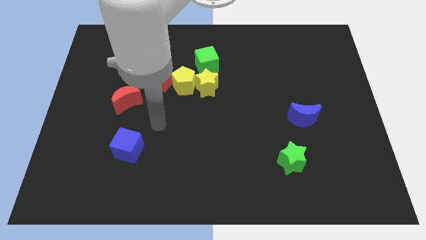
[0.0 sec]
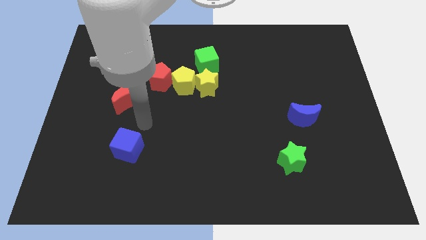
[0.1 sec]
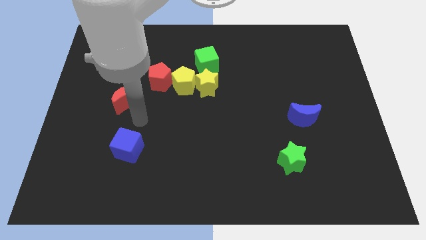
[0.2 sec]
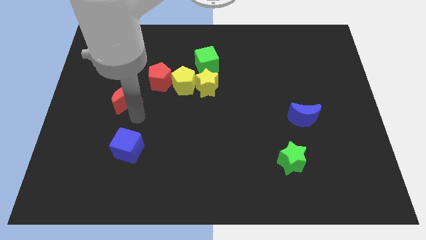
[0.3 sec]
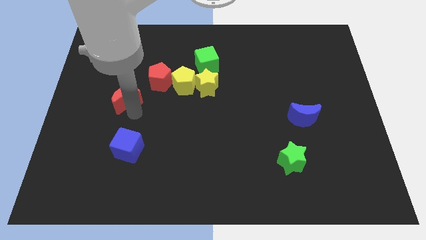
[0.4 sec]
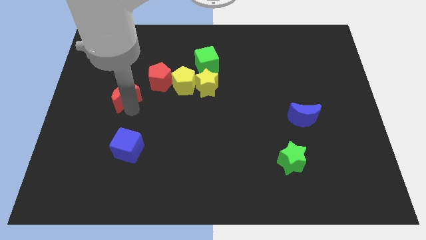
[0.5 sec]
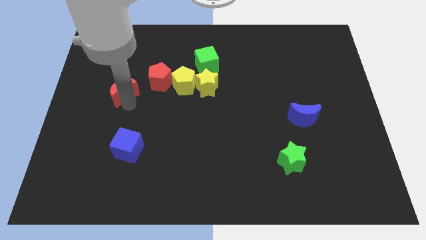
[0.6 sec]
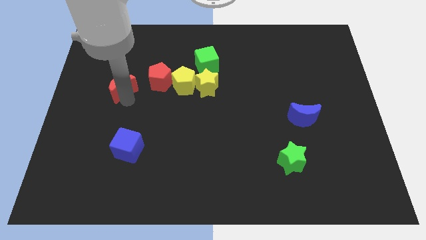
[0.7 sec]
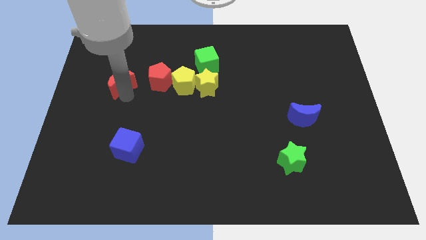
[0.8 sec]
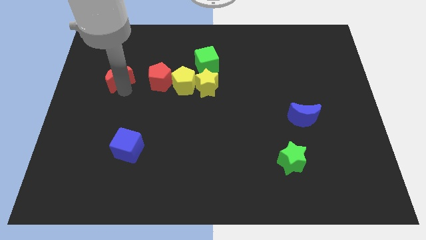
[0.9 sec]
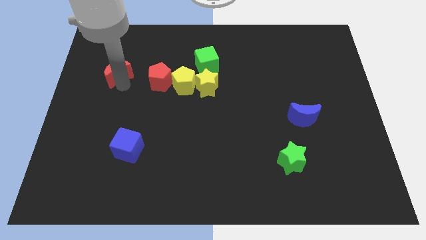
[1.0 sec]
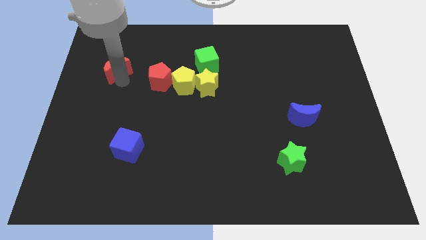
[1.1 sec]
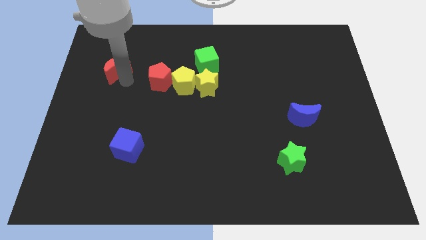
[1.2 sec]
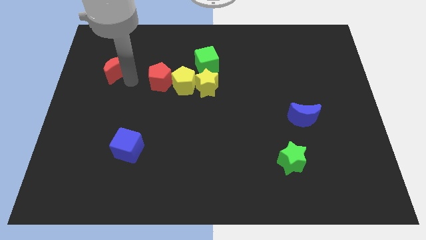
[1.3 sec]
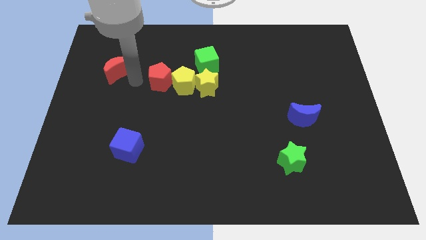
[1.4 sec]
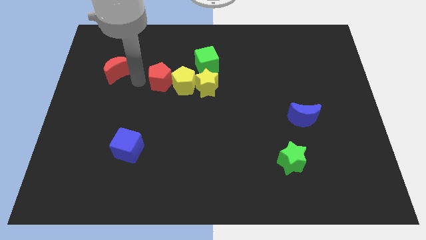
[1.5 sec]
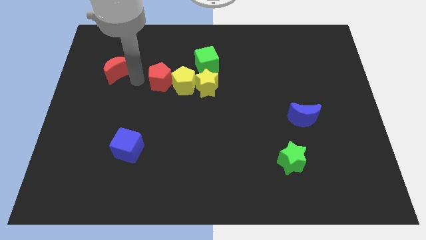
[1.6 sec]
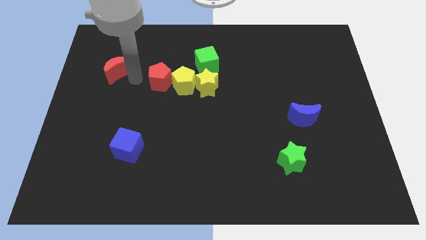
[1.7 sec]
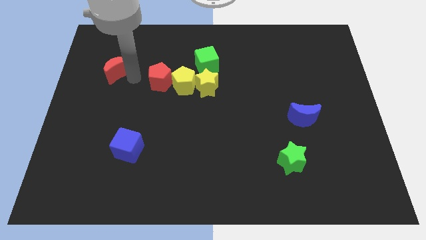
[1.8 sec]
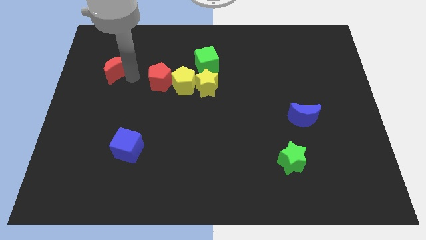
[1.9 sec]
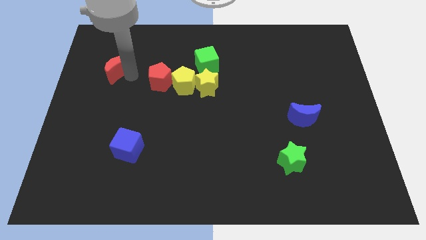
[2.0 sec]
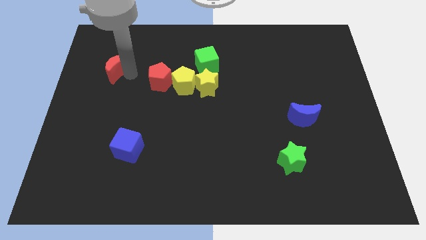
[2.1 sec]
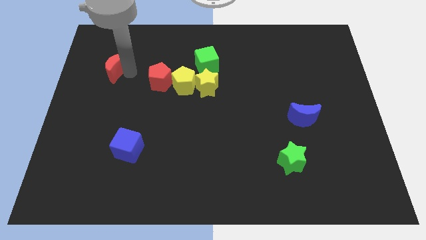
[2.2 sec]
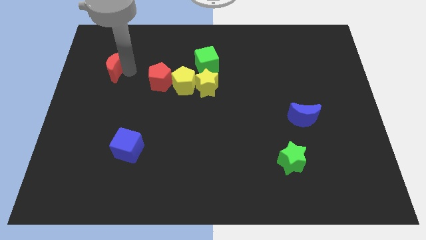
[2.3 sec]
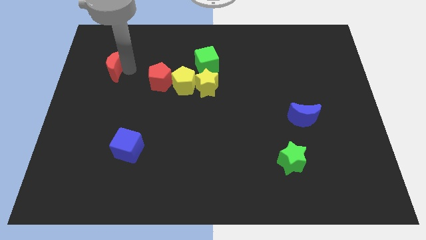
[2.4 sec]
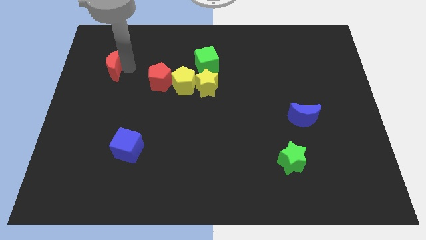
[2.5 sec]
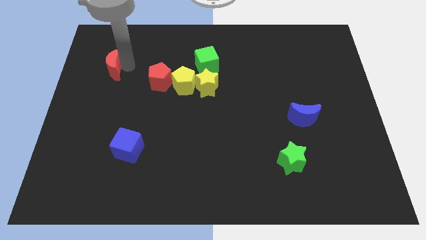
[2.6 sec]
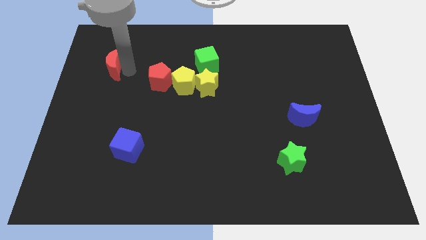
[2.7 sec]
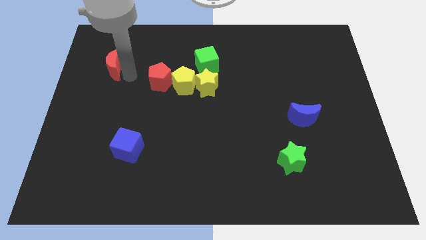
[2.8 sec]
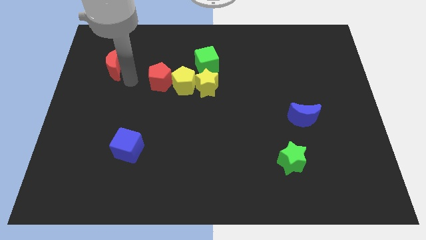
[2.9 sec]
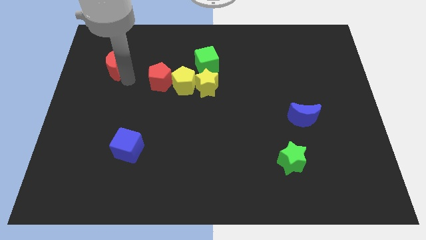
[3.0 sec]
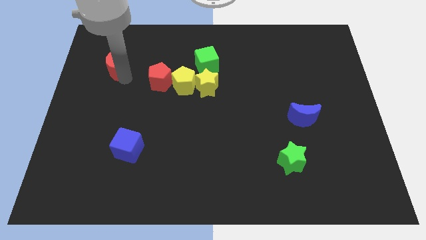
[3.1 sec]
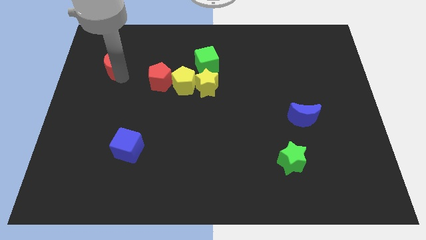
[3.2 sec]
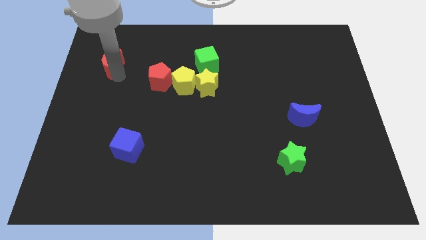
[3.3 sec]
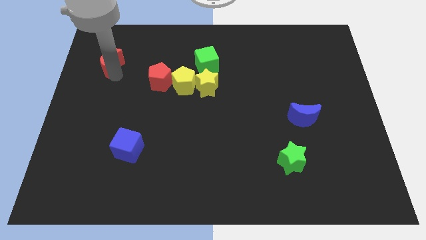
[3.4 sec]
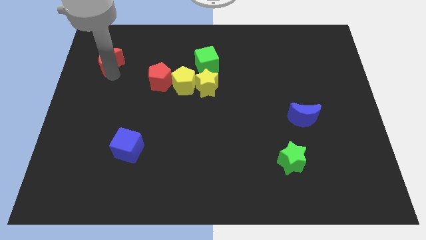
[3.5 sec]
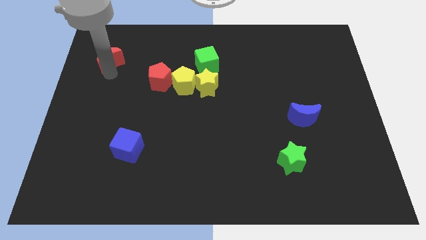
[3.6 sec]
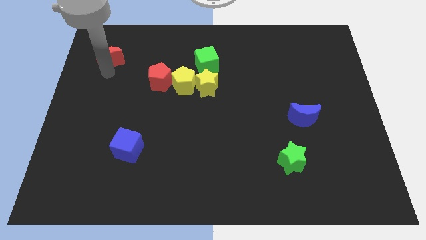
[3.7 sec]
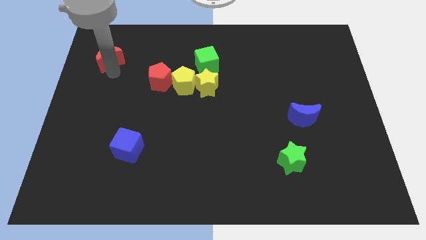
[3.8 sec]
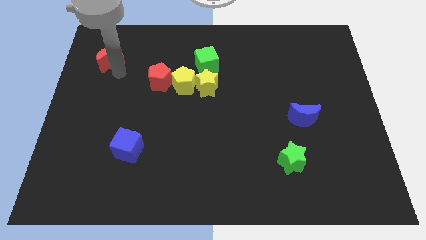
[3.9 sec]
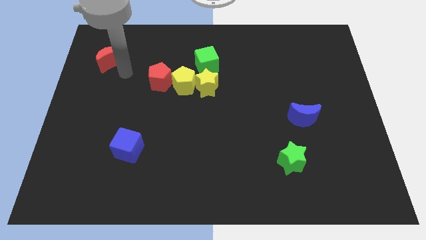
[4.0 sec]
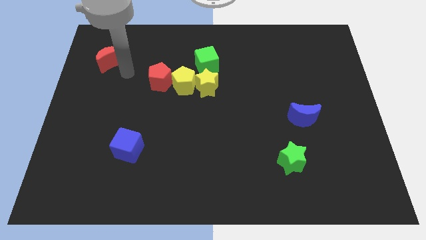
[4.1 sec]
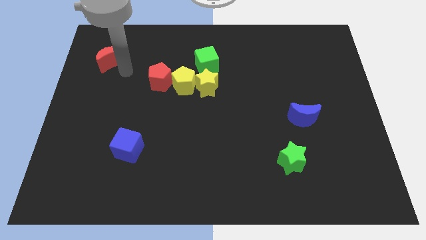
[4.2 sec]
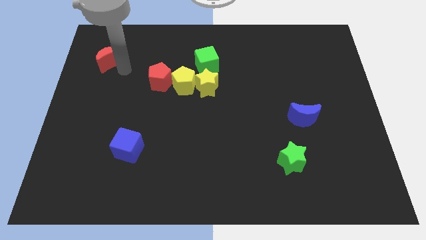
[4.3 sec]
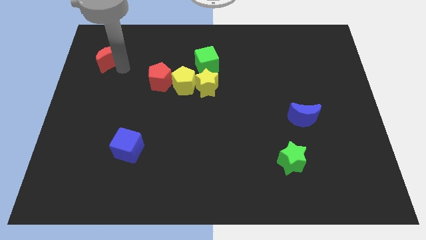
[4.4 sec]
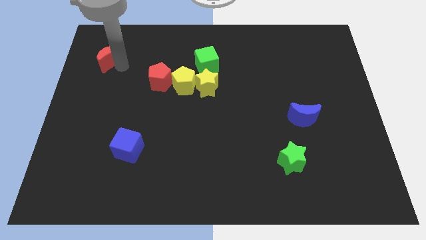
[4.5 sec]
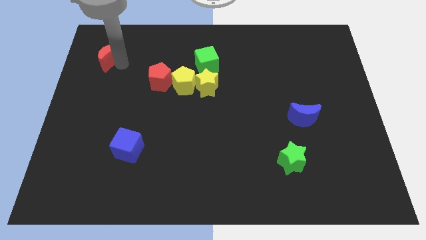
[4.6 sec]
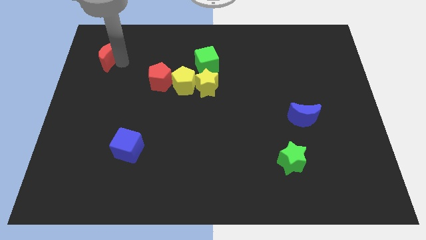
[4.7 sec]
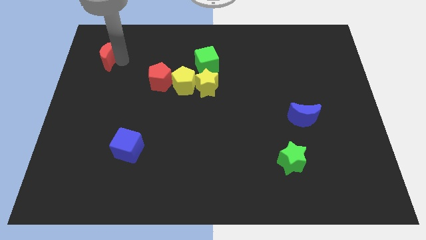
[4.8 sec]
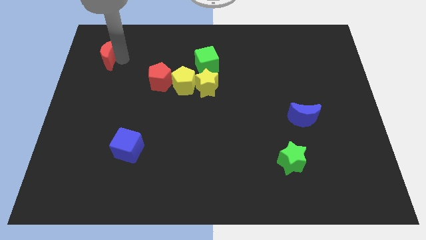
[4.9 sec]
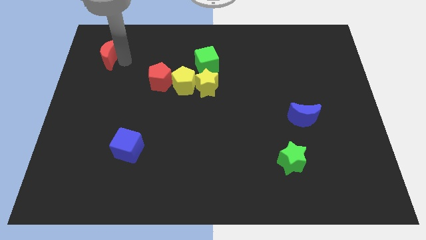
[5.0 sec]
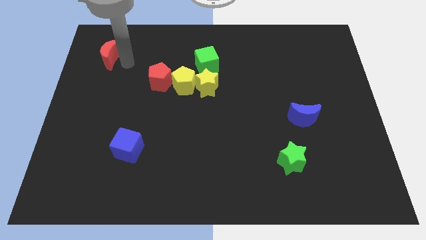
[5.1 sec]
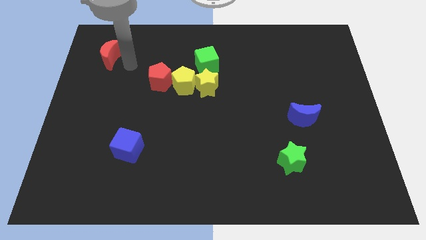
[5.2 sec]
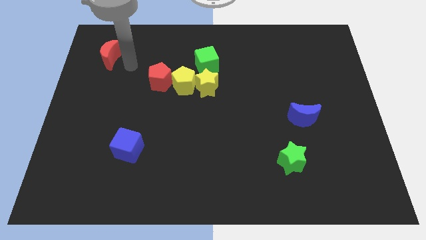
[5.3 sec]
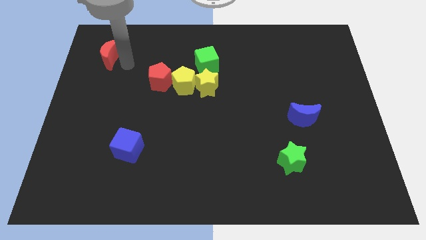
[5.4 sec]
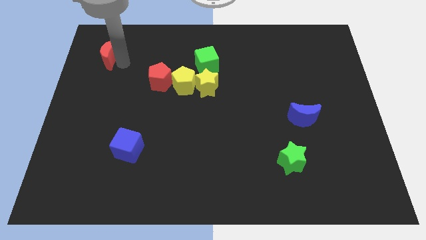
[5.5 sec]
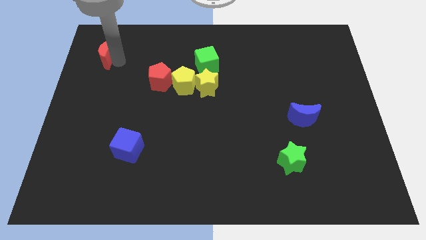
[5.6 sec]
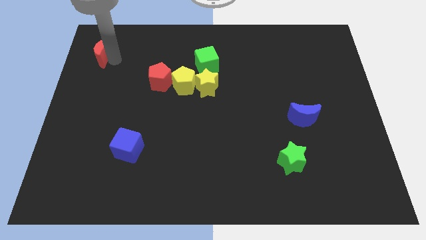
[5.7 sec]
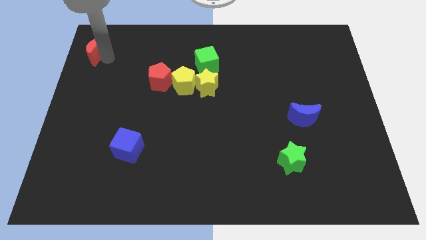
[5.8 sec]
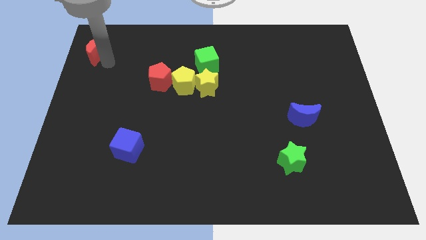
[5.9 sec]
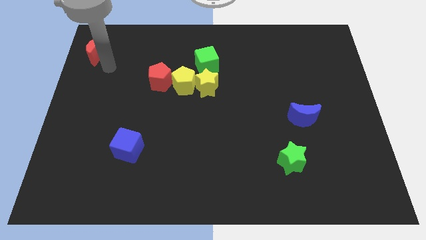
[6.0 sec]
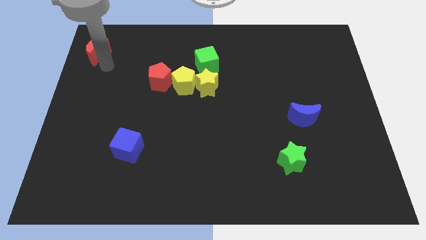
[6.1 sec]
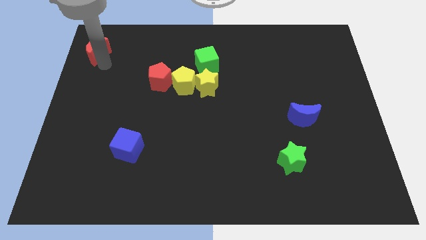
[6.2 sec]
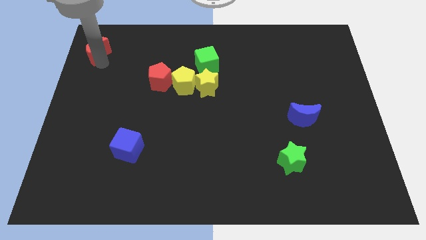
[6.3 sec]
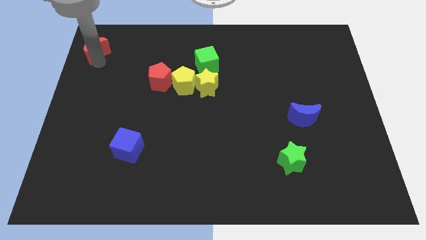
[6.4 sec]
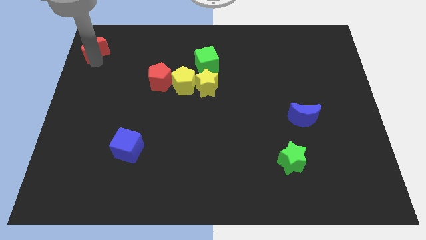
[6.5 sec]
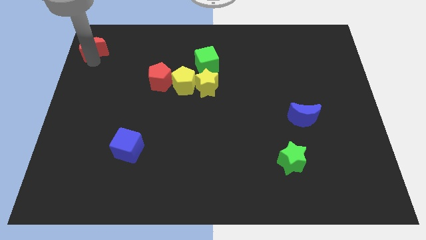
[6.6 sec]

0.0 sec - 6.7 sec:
put the red moon to the top left of the board
